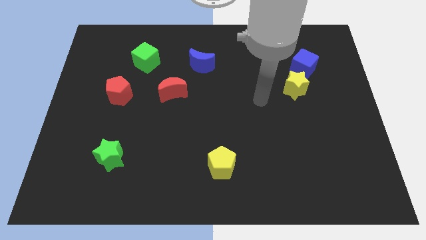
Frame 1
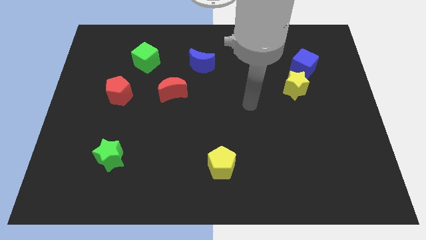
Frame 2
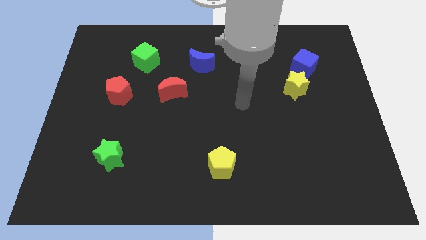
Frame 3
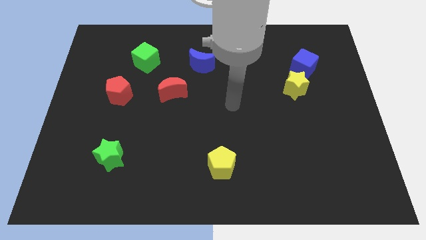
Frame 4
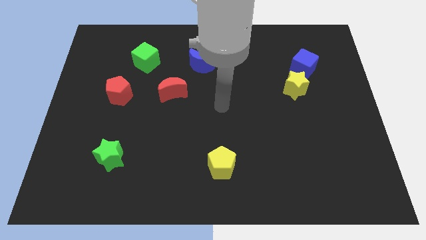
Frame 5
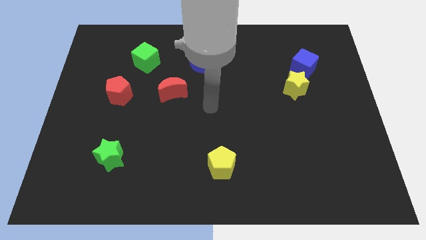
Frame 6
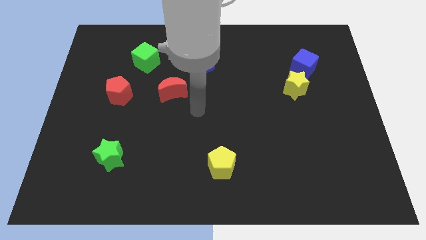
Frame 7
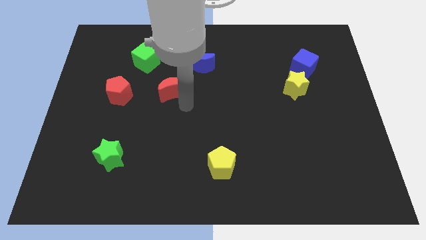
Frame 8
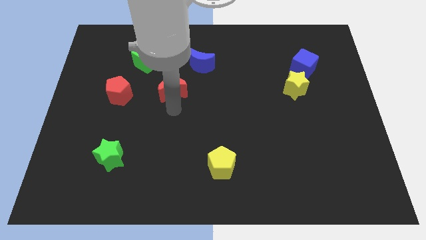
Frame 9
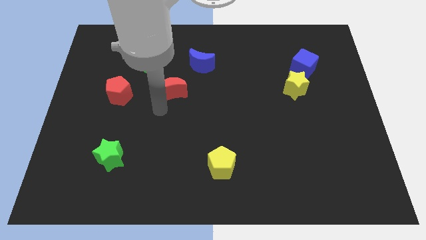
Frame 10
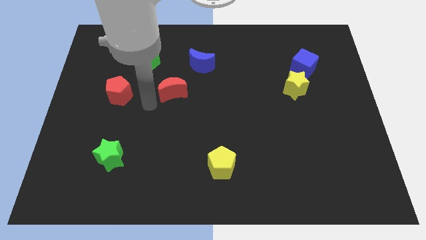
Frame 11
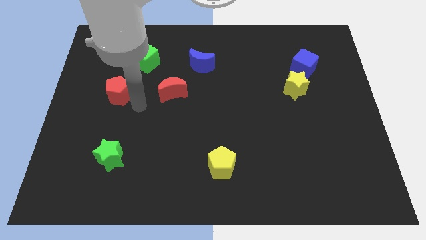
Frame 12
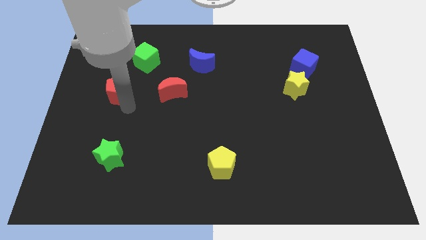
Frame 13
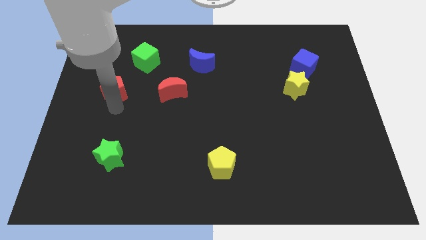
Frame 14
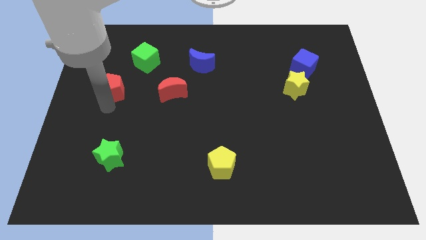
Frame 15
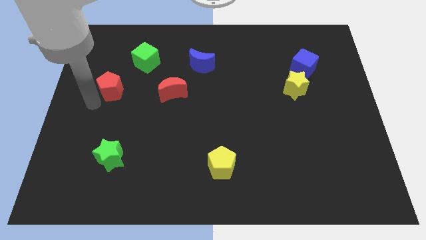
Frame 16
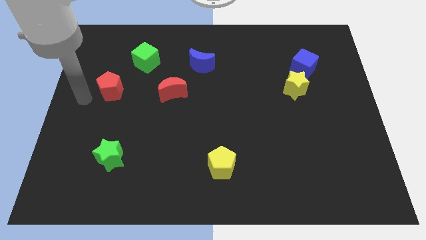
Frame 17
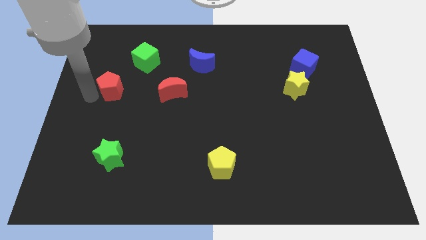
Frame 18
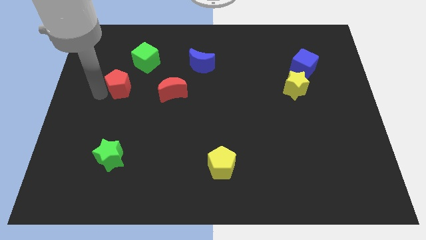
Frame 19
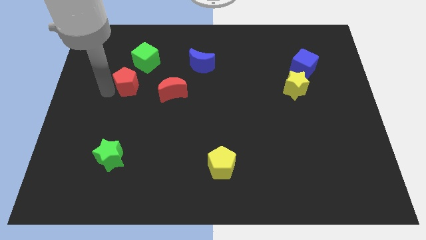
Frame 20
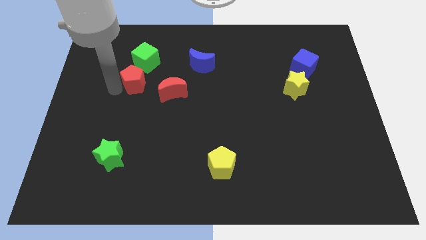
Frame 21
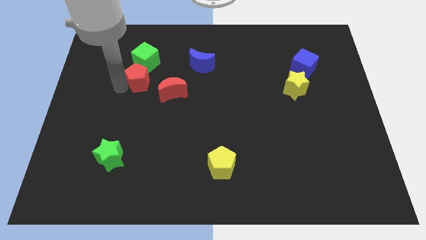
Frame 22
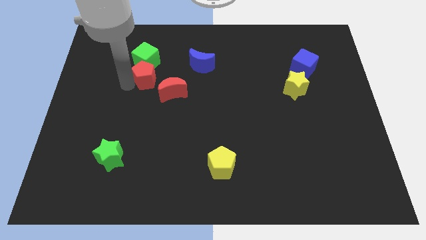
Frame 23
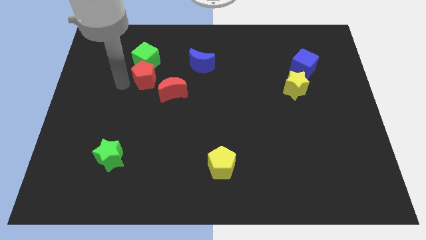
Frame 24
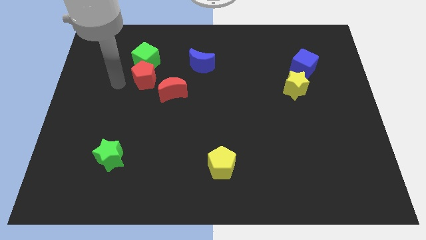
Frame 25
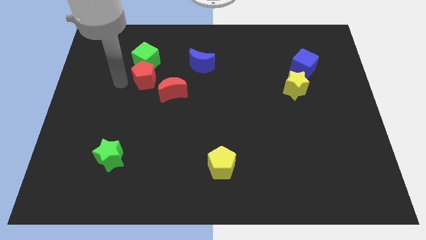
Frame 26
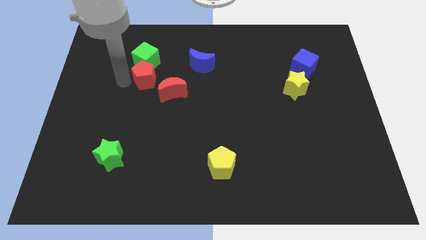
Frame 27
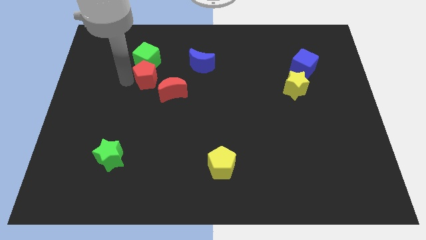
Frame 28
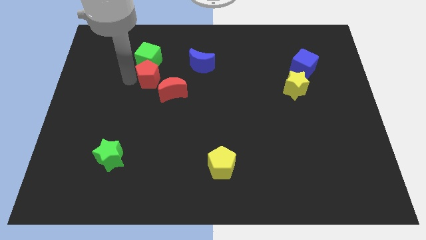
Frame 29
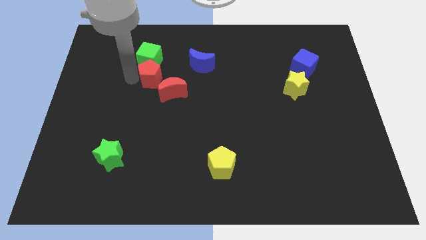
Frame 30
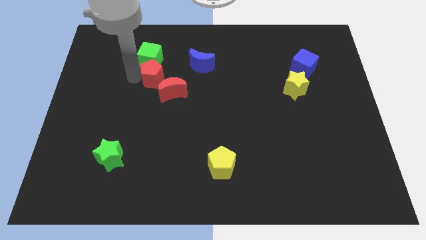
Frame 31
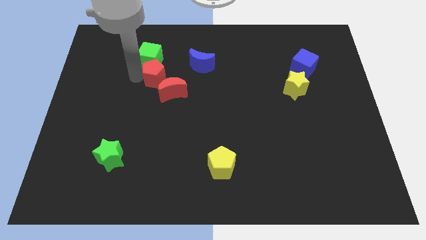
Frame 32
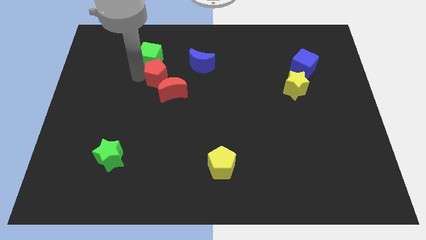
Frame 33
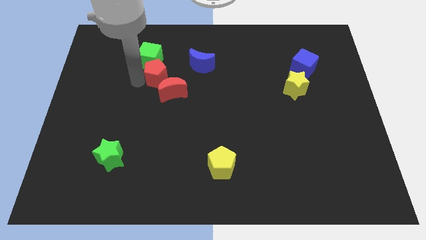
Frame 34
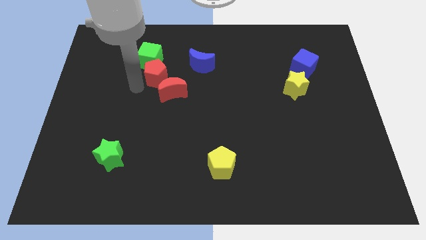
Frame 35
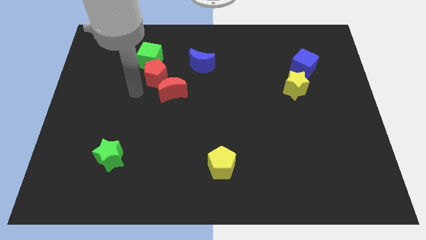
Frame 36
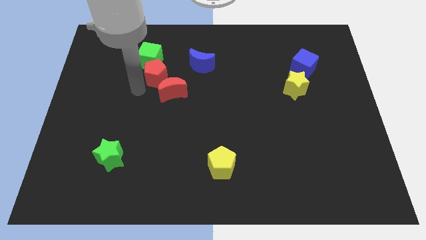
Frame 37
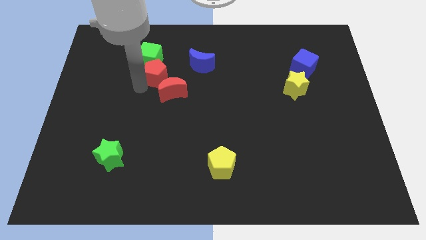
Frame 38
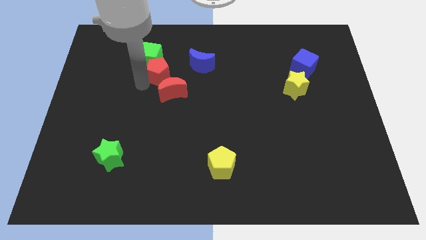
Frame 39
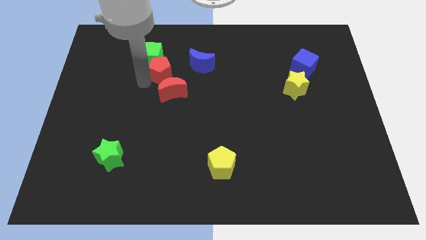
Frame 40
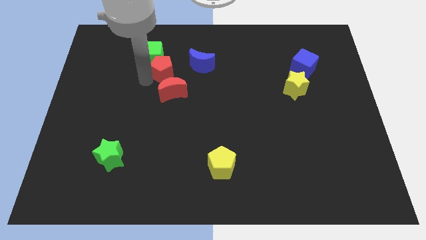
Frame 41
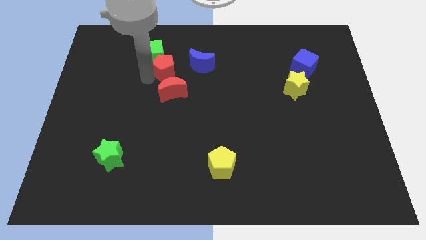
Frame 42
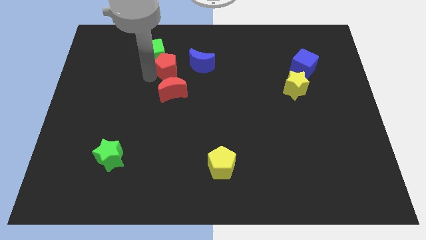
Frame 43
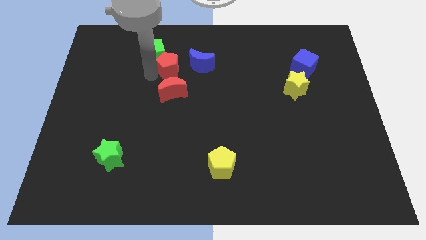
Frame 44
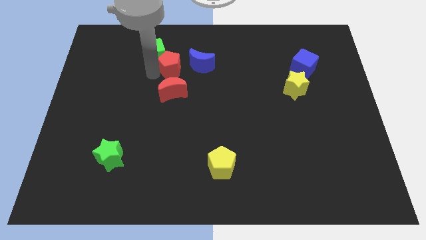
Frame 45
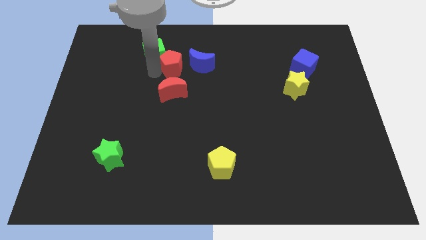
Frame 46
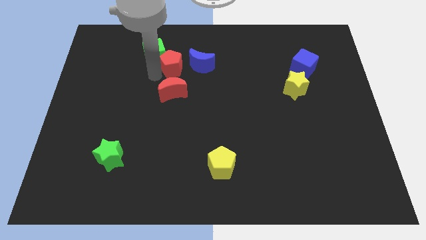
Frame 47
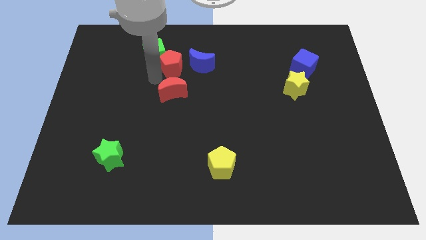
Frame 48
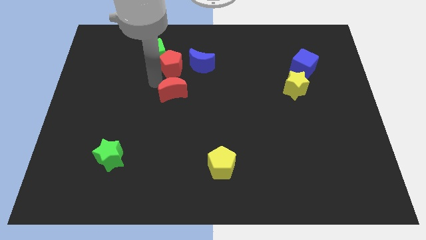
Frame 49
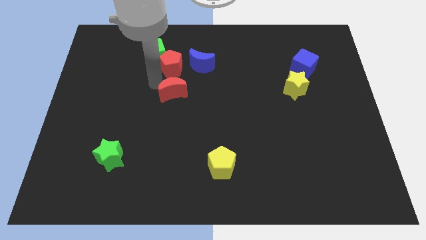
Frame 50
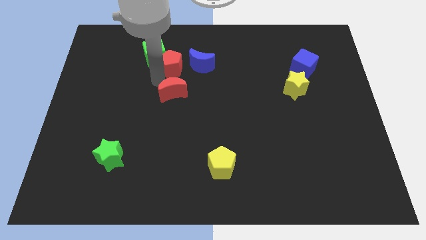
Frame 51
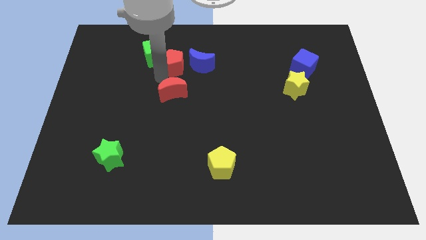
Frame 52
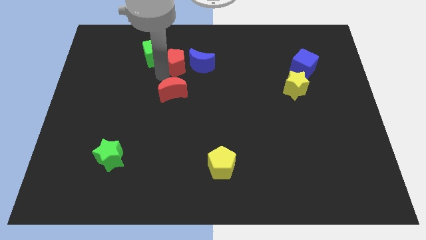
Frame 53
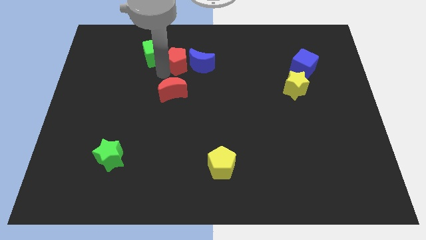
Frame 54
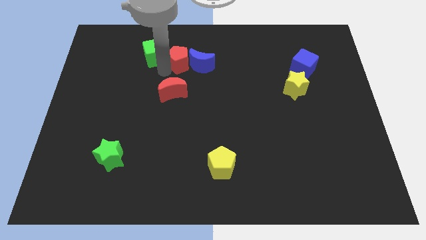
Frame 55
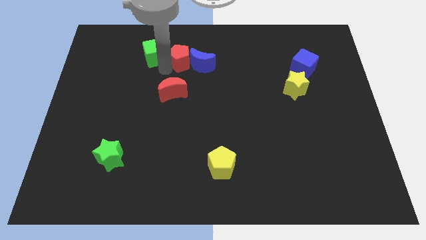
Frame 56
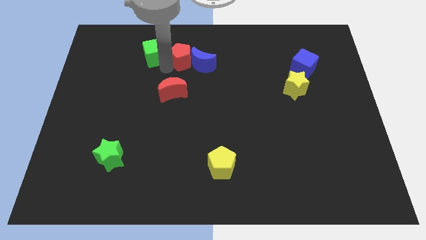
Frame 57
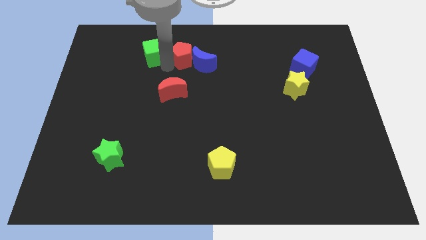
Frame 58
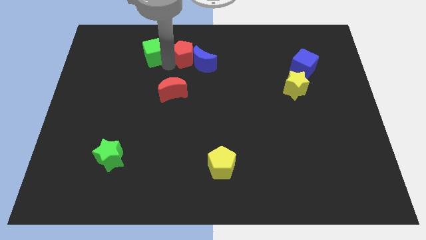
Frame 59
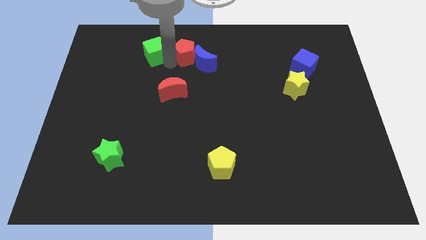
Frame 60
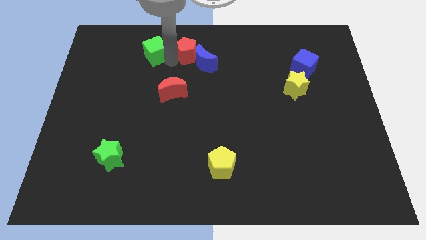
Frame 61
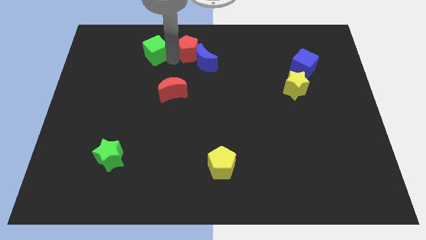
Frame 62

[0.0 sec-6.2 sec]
push the red pentagon to the towards your base

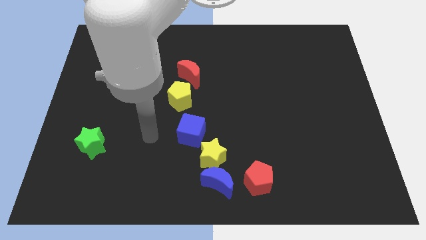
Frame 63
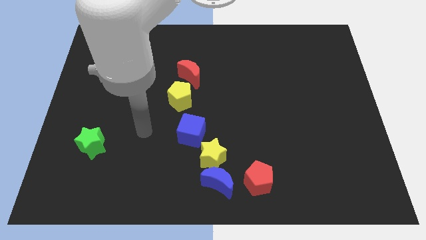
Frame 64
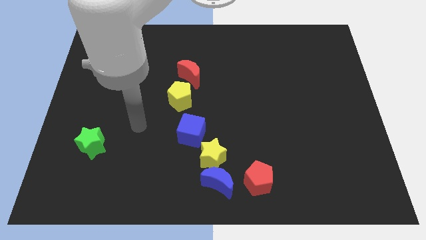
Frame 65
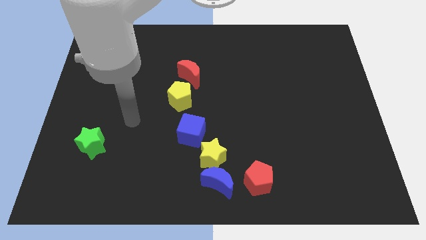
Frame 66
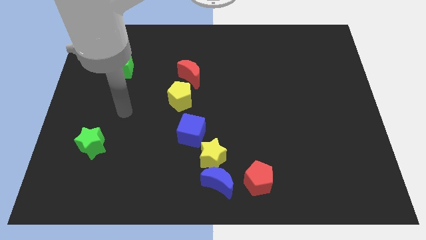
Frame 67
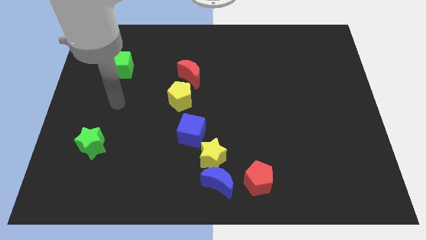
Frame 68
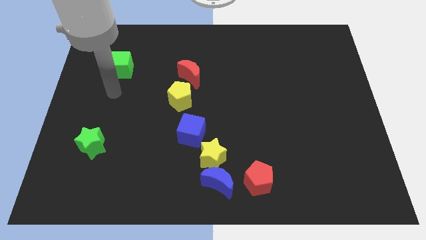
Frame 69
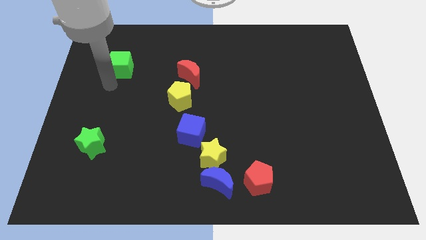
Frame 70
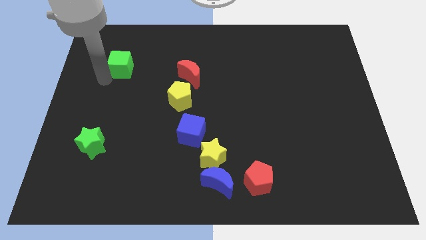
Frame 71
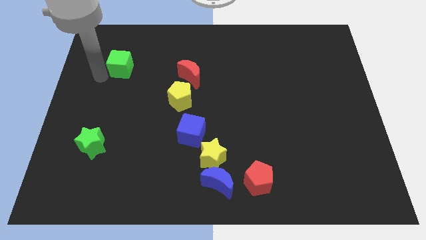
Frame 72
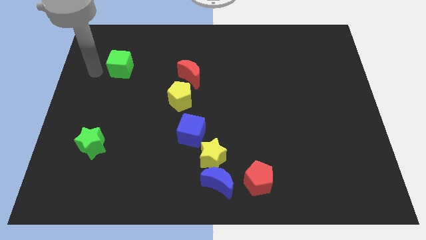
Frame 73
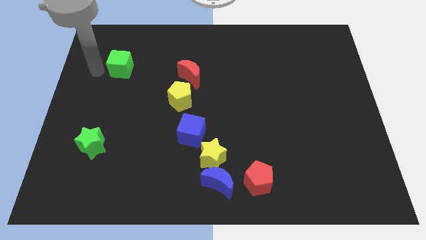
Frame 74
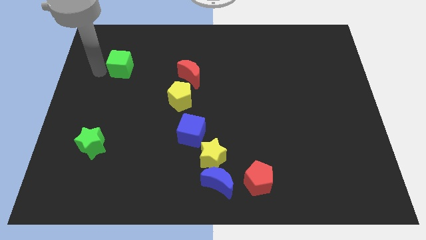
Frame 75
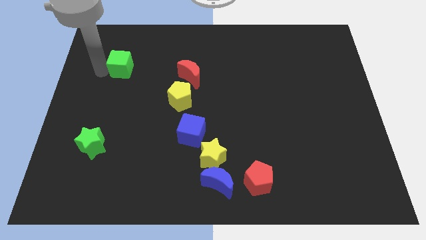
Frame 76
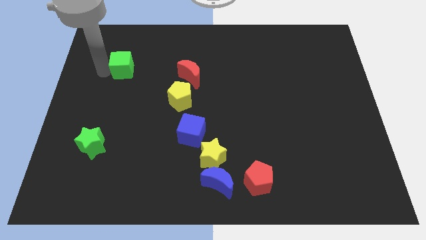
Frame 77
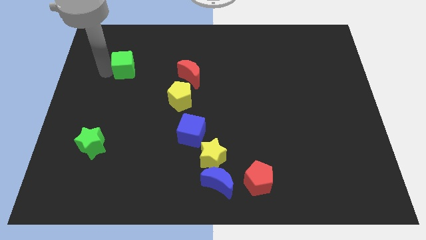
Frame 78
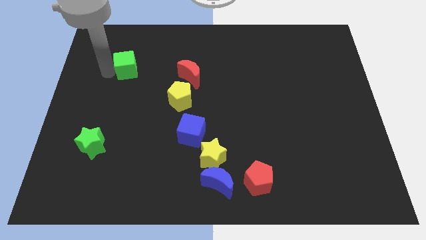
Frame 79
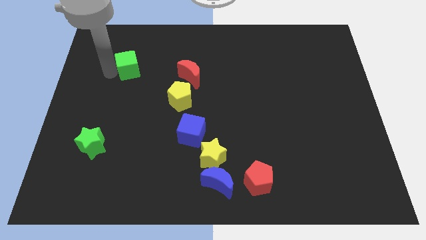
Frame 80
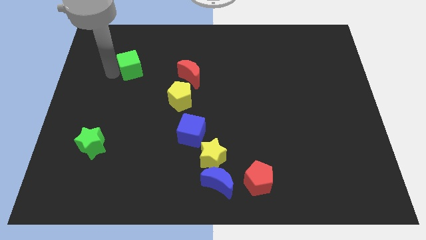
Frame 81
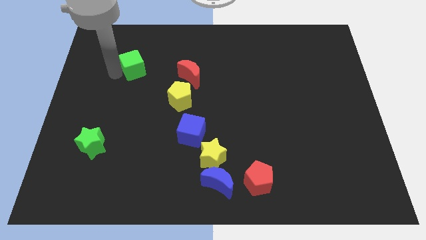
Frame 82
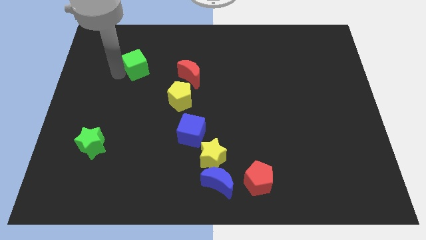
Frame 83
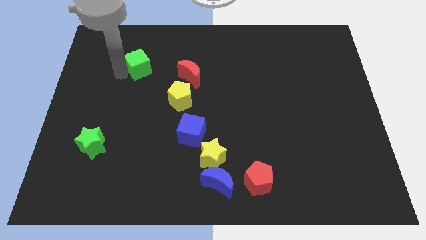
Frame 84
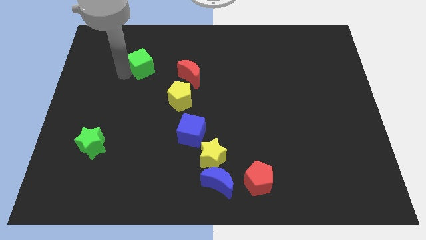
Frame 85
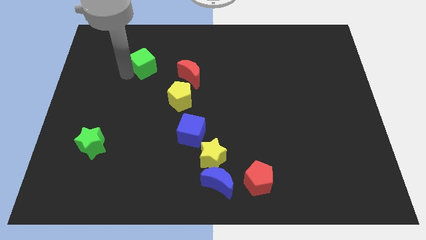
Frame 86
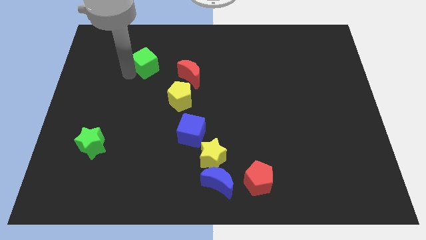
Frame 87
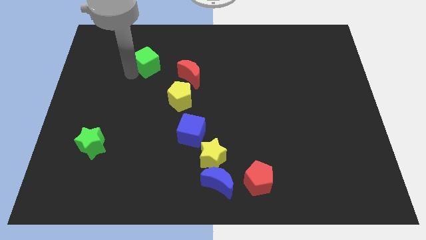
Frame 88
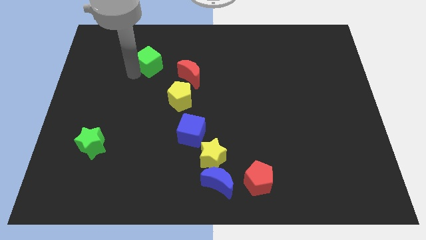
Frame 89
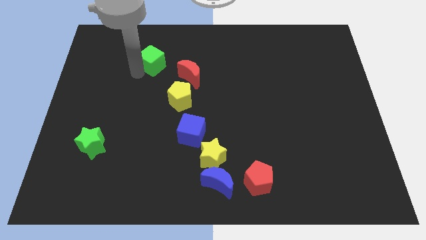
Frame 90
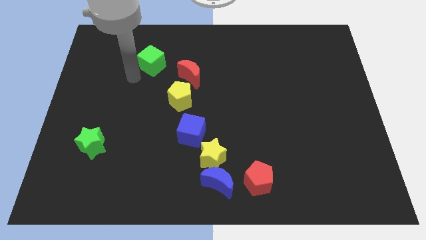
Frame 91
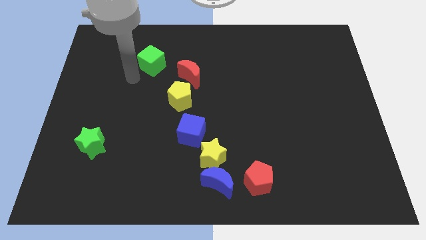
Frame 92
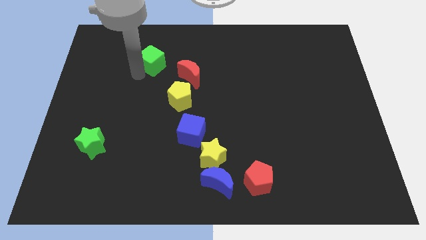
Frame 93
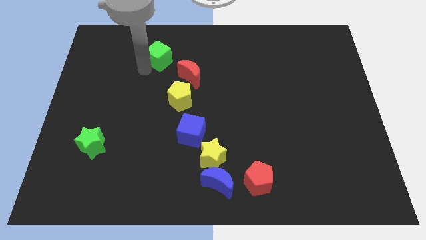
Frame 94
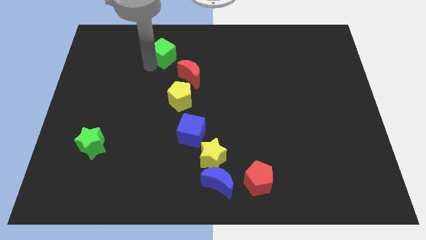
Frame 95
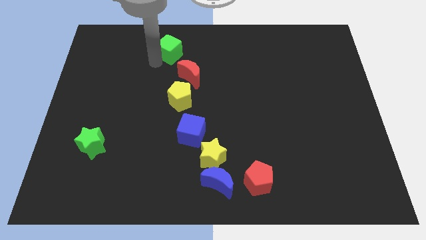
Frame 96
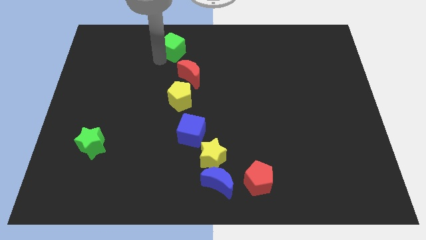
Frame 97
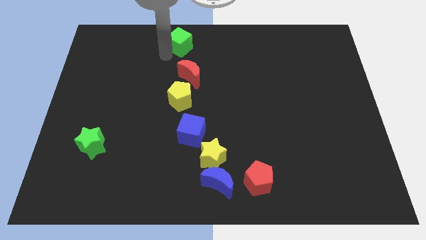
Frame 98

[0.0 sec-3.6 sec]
push the green cube to the towards your base
